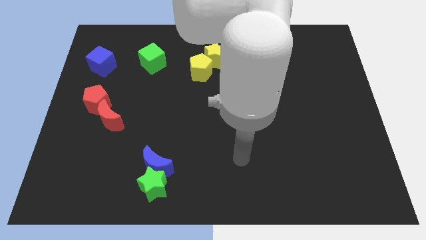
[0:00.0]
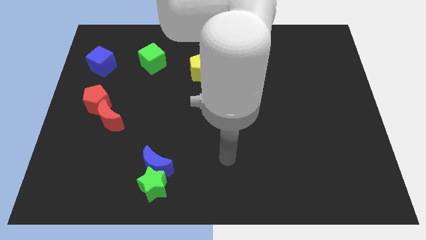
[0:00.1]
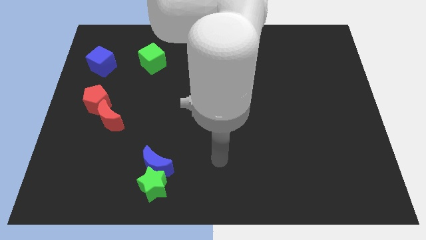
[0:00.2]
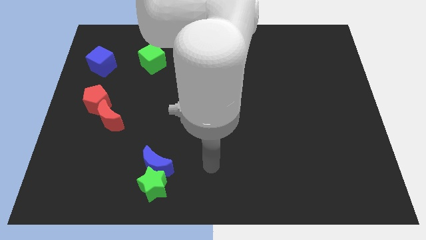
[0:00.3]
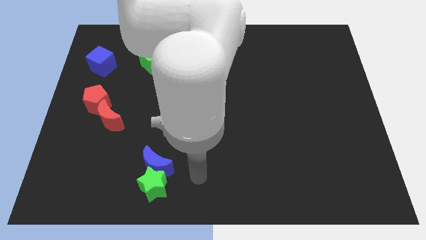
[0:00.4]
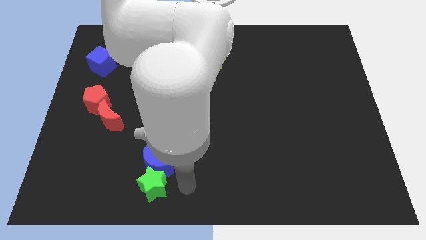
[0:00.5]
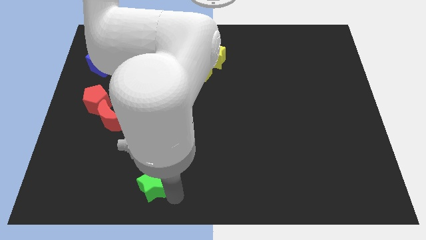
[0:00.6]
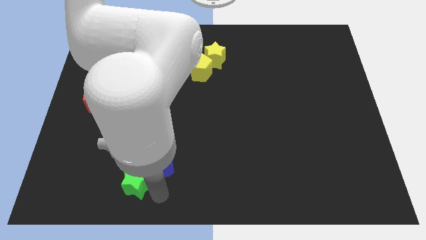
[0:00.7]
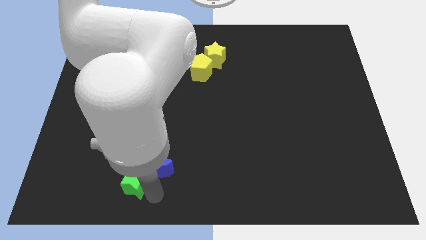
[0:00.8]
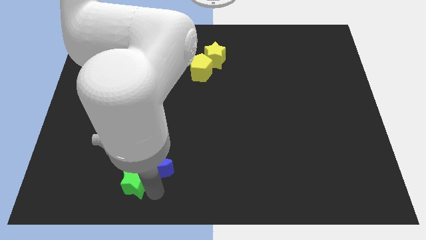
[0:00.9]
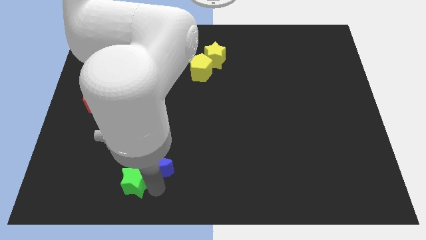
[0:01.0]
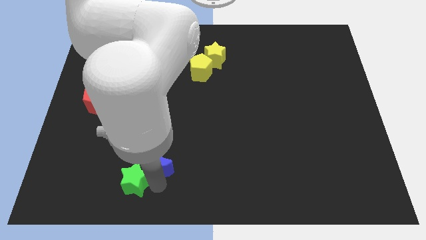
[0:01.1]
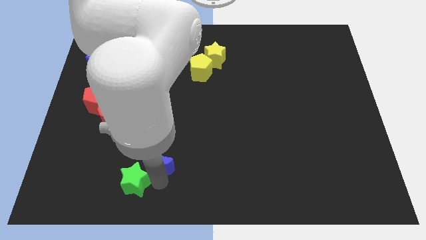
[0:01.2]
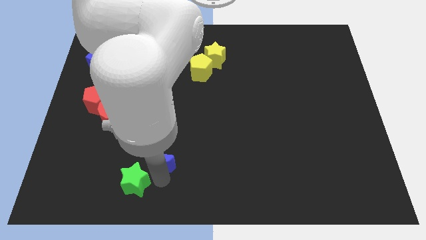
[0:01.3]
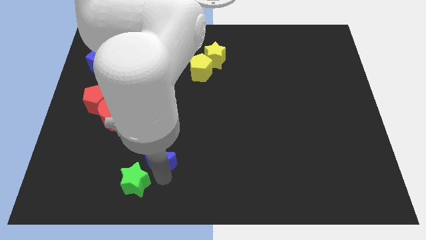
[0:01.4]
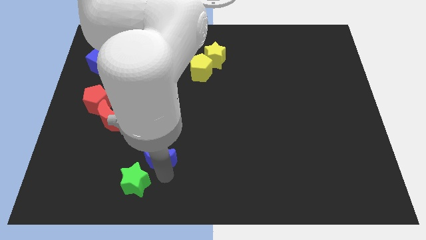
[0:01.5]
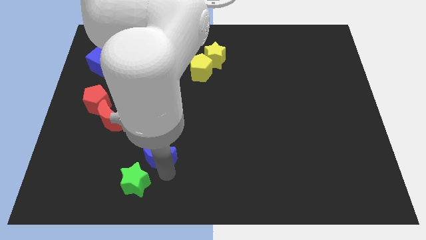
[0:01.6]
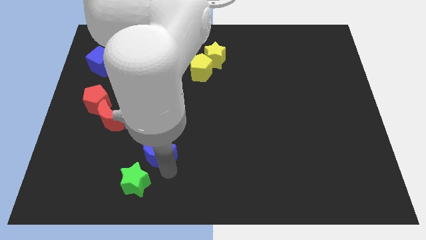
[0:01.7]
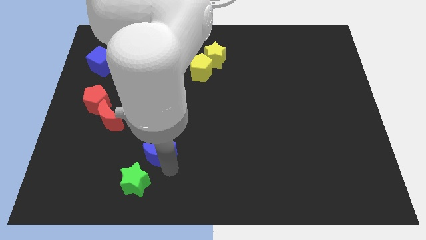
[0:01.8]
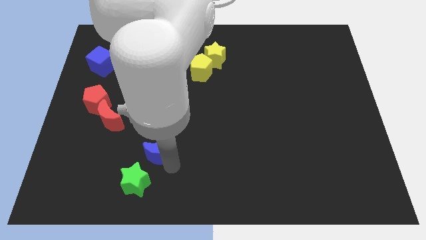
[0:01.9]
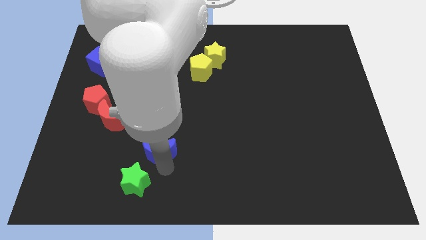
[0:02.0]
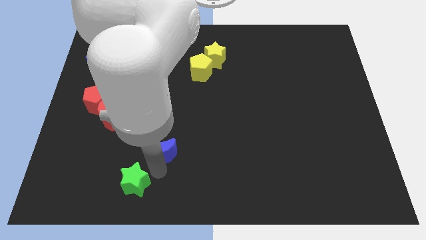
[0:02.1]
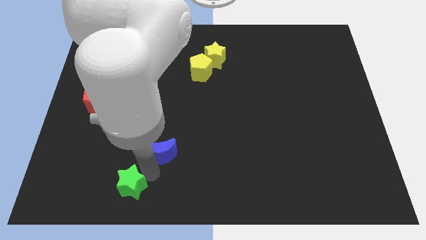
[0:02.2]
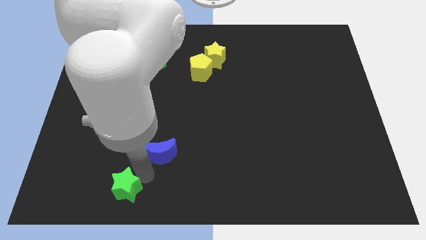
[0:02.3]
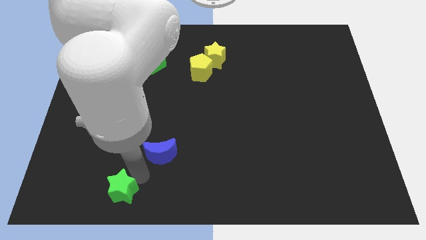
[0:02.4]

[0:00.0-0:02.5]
move the blue moon away from the green star

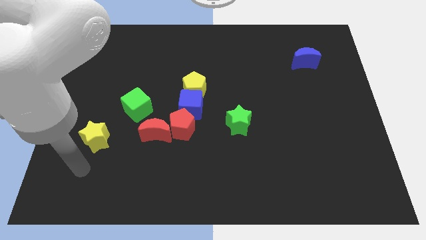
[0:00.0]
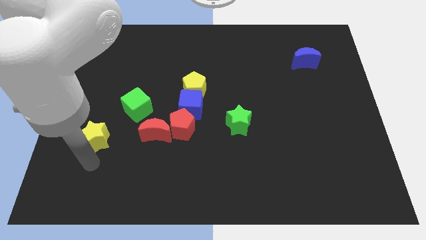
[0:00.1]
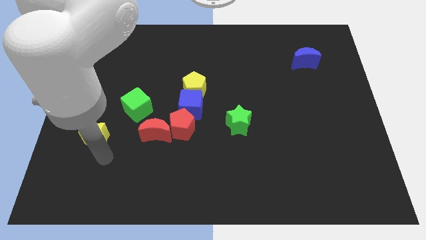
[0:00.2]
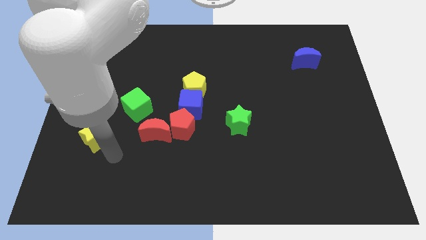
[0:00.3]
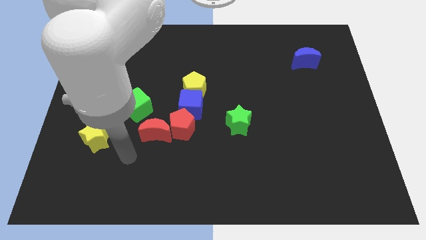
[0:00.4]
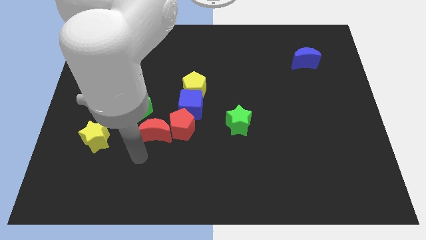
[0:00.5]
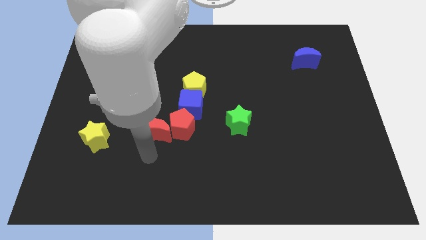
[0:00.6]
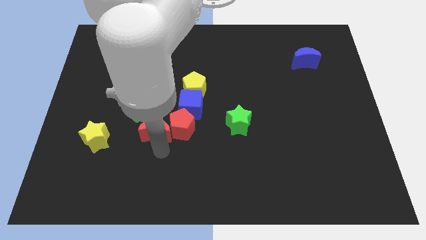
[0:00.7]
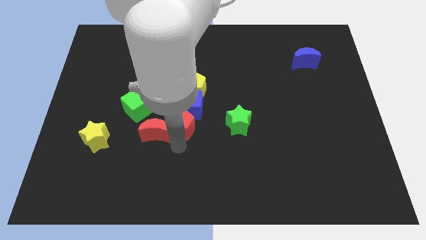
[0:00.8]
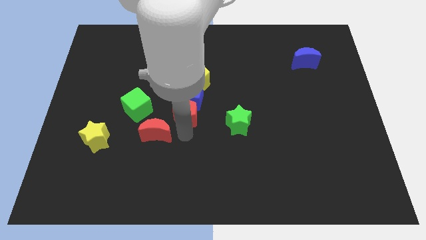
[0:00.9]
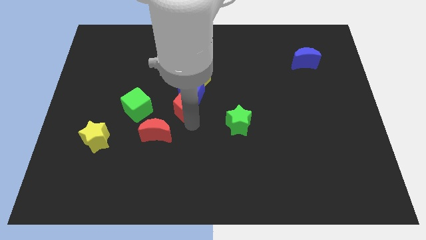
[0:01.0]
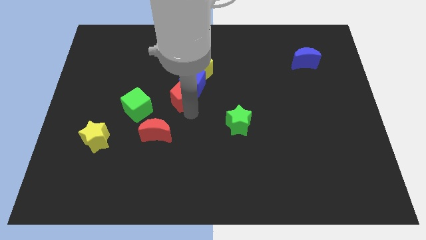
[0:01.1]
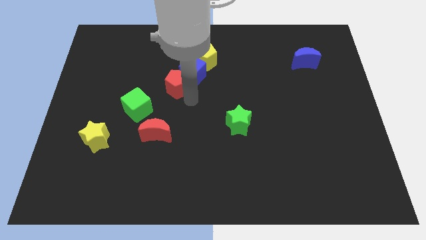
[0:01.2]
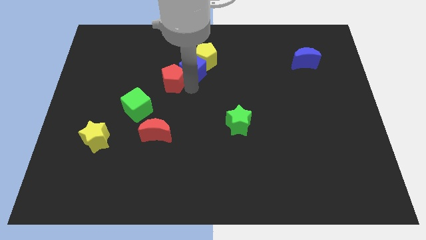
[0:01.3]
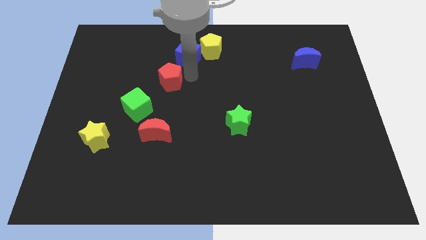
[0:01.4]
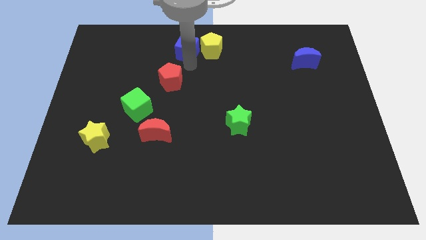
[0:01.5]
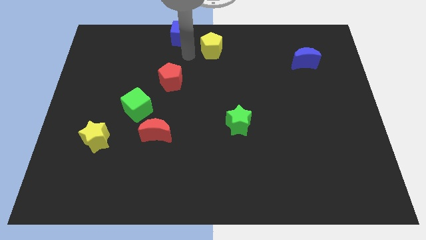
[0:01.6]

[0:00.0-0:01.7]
separate the yellow pentagon from the blue cube

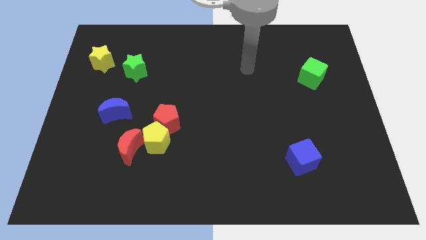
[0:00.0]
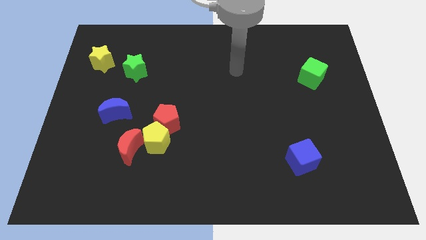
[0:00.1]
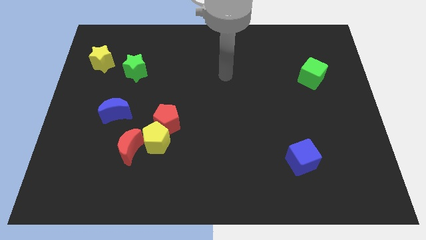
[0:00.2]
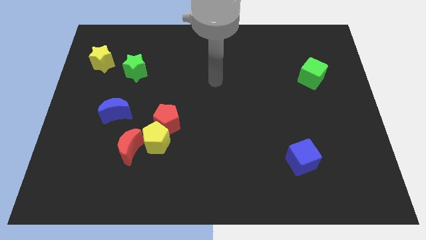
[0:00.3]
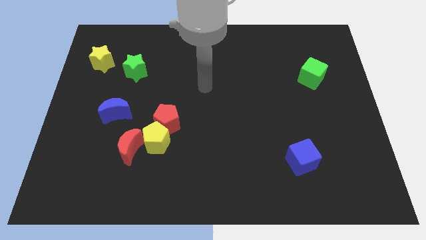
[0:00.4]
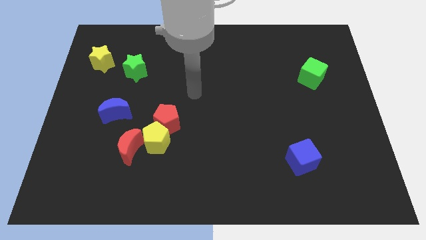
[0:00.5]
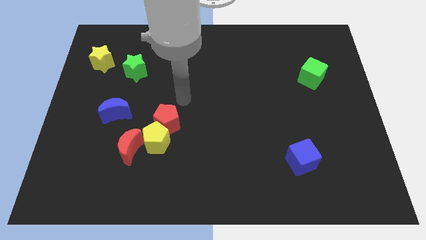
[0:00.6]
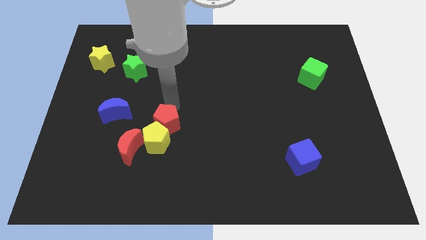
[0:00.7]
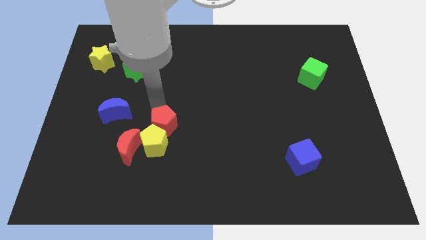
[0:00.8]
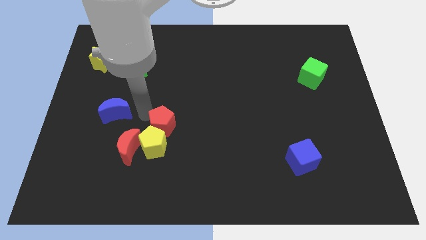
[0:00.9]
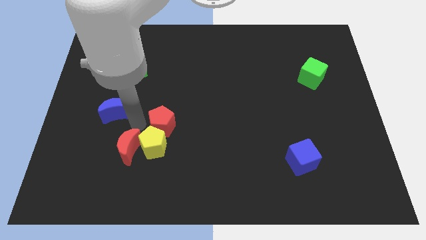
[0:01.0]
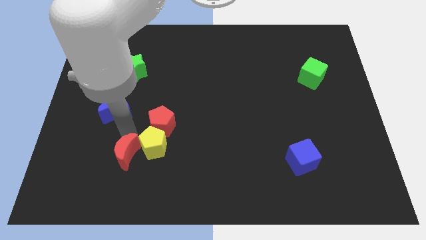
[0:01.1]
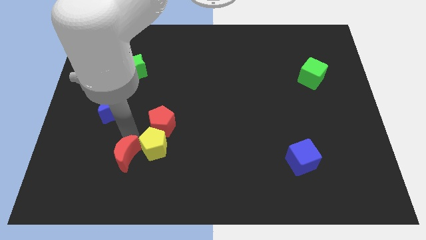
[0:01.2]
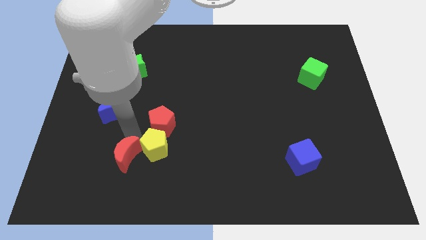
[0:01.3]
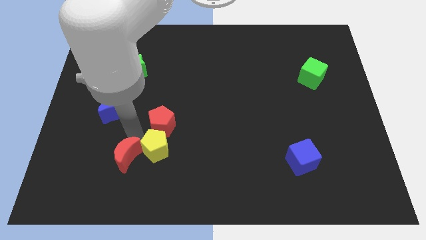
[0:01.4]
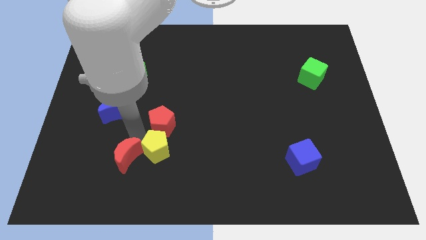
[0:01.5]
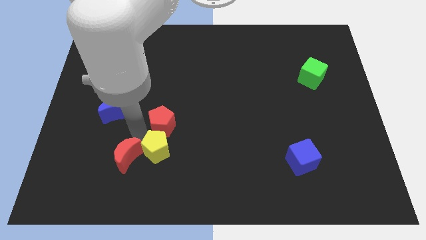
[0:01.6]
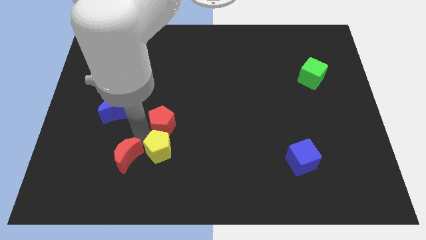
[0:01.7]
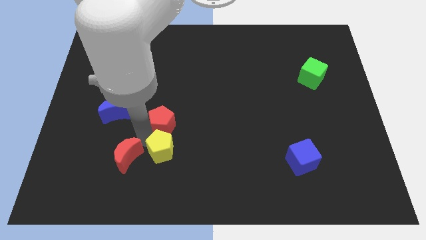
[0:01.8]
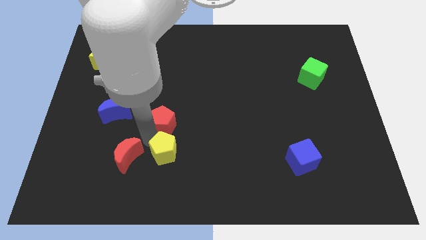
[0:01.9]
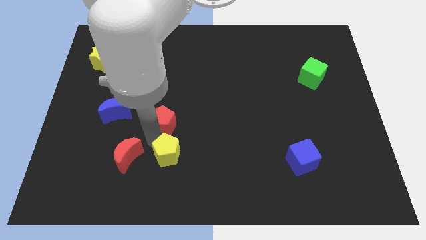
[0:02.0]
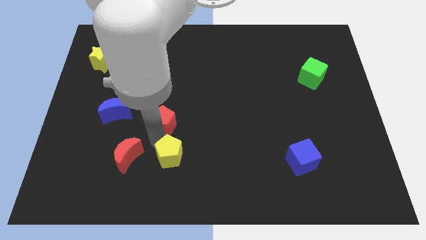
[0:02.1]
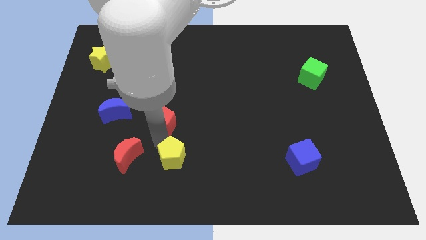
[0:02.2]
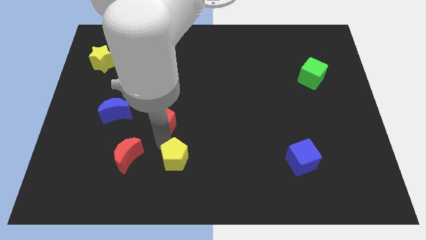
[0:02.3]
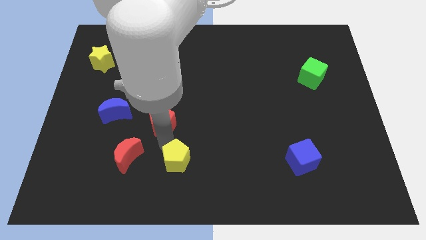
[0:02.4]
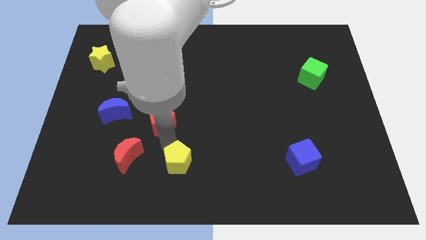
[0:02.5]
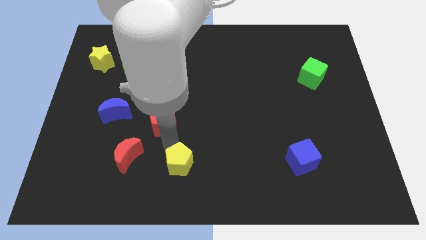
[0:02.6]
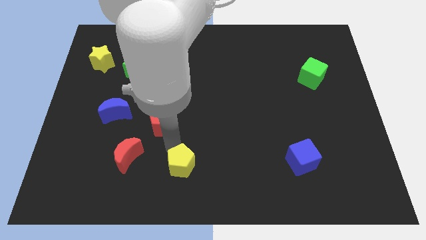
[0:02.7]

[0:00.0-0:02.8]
pull the yellow pentagon apart from the red pentagon and red moon

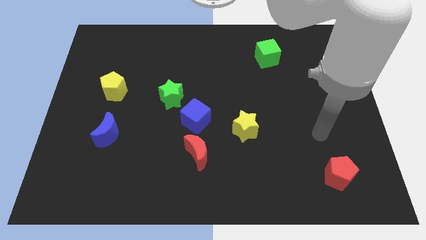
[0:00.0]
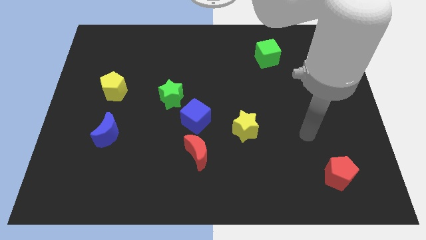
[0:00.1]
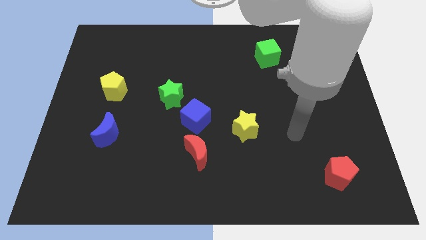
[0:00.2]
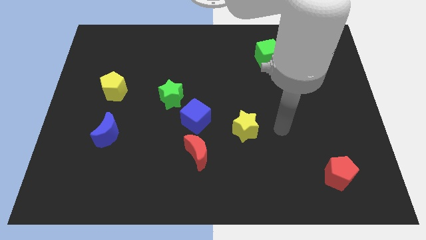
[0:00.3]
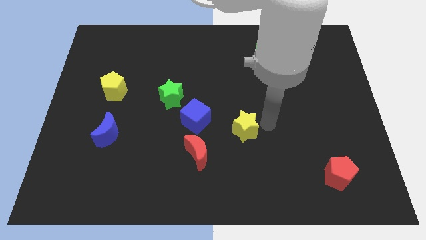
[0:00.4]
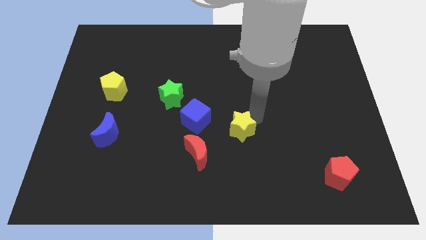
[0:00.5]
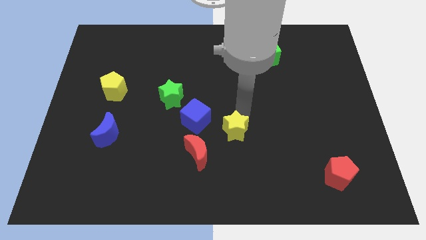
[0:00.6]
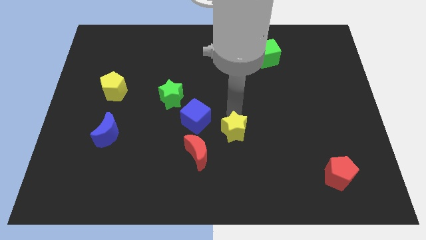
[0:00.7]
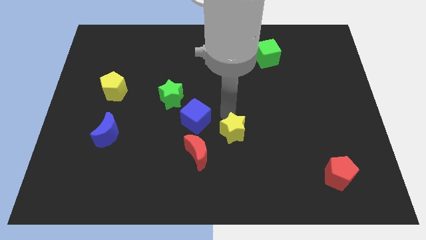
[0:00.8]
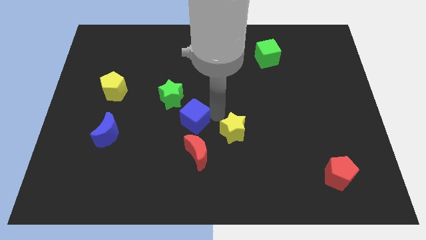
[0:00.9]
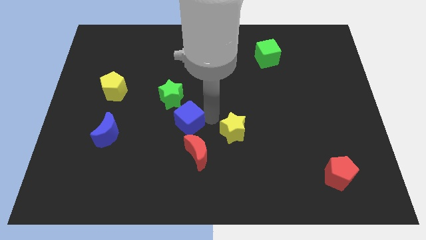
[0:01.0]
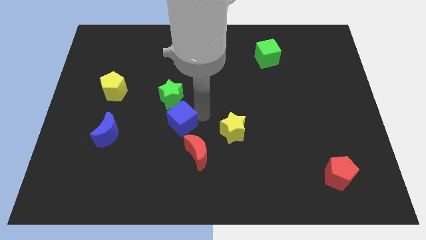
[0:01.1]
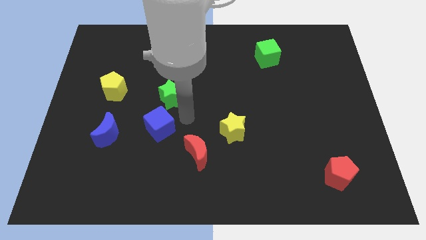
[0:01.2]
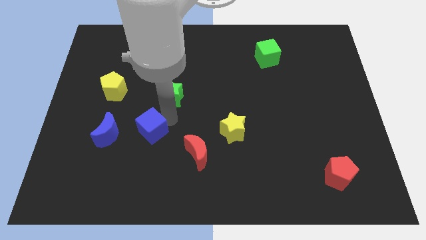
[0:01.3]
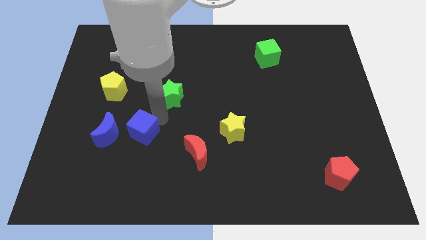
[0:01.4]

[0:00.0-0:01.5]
move the green star away from the blue cube

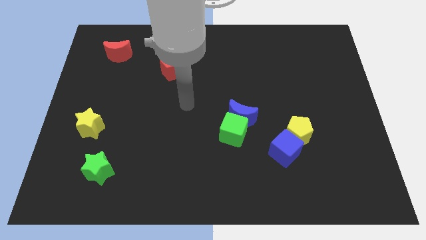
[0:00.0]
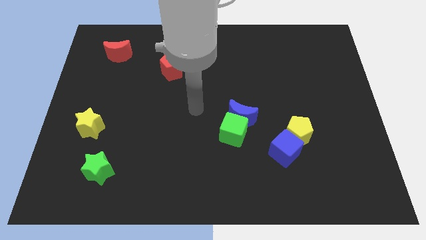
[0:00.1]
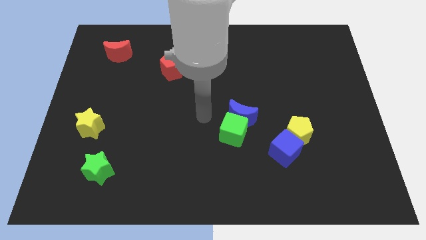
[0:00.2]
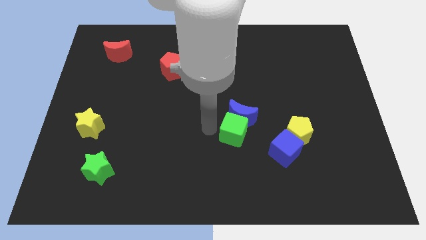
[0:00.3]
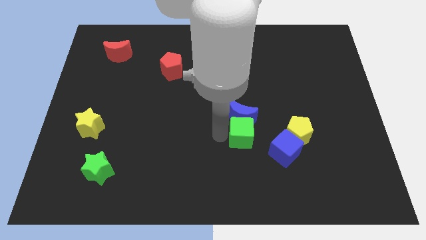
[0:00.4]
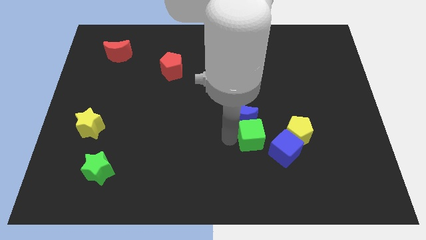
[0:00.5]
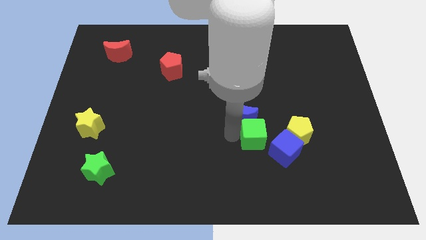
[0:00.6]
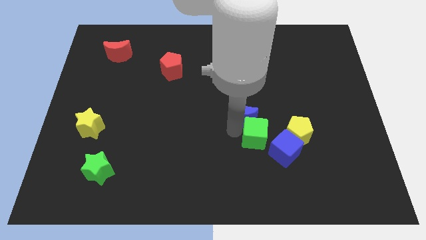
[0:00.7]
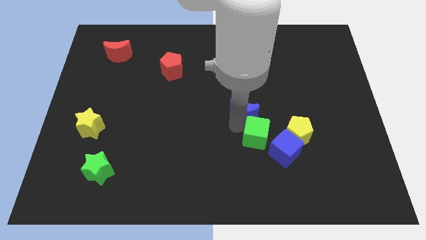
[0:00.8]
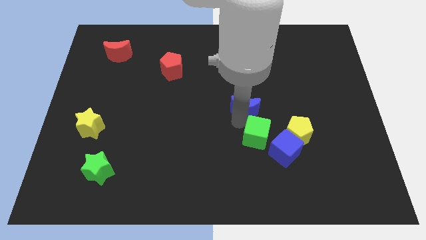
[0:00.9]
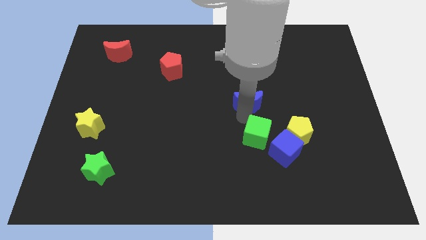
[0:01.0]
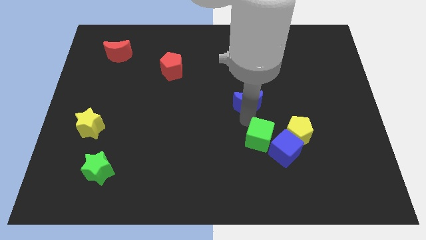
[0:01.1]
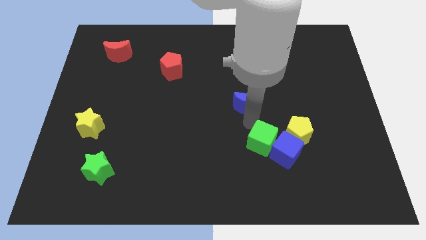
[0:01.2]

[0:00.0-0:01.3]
move the blue moon away from the green cube
